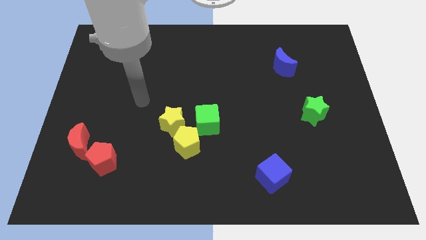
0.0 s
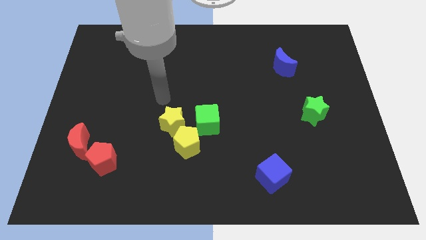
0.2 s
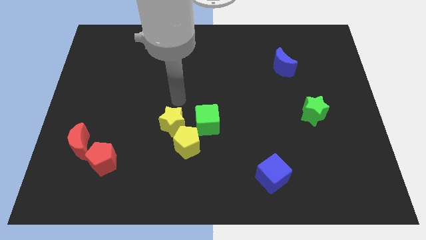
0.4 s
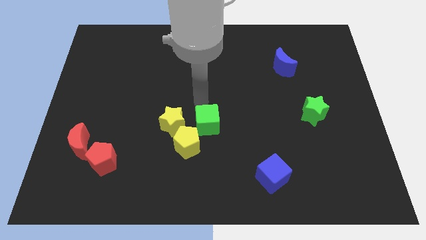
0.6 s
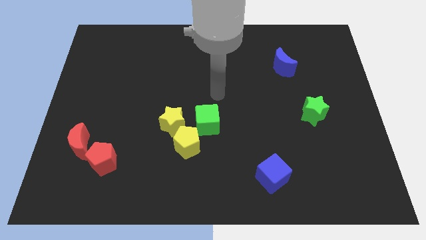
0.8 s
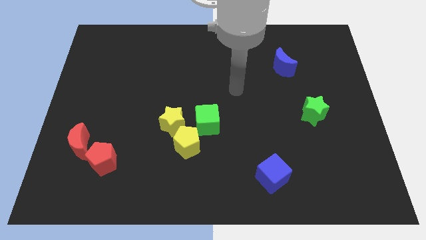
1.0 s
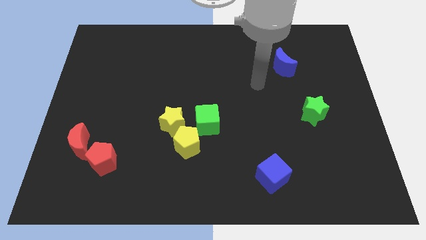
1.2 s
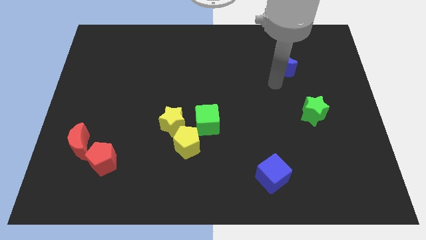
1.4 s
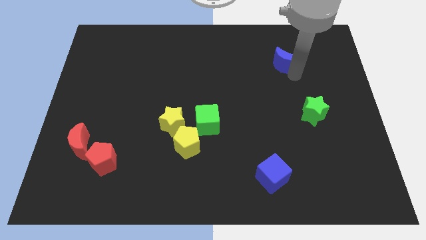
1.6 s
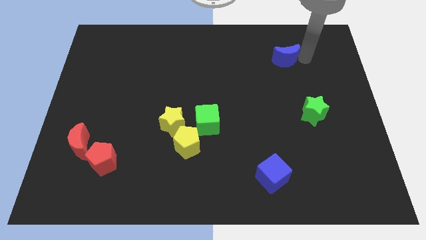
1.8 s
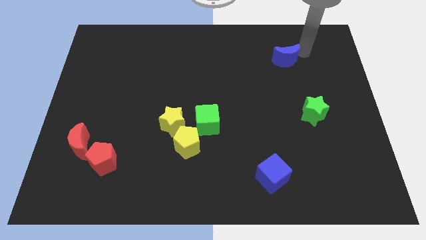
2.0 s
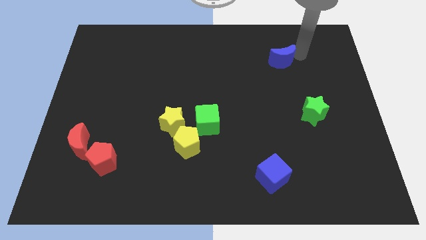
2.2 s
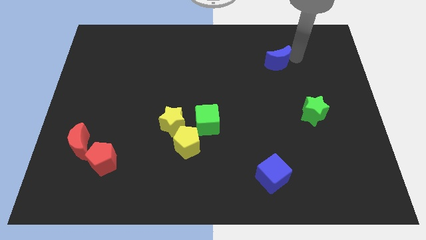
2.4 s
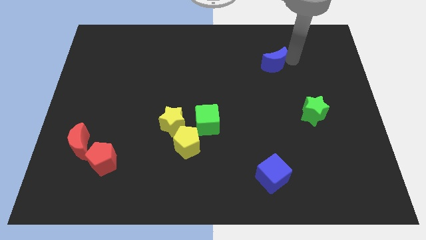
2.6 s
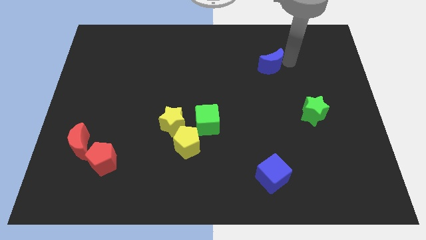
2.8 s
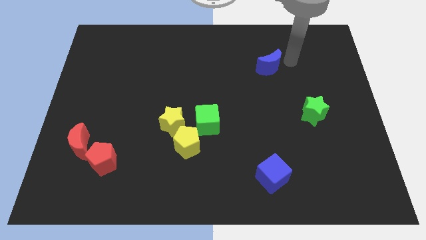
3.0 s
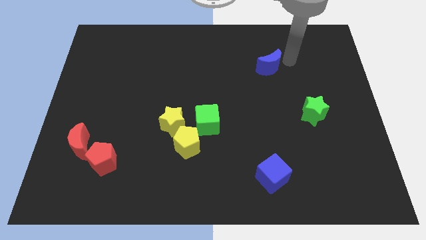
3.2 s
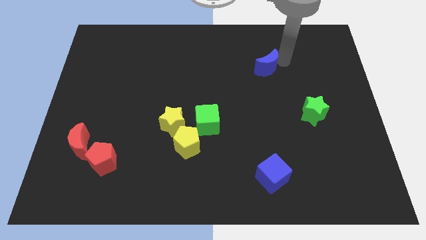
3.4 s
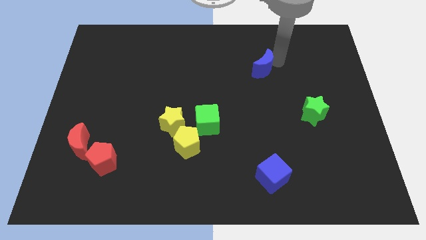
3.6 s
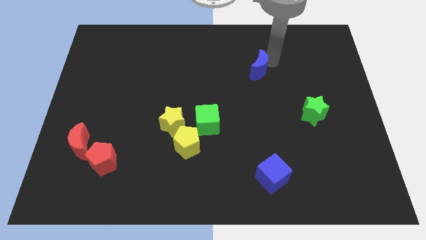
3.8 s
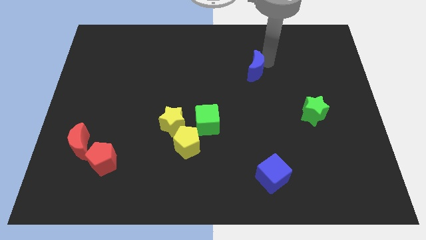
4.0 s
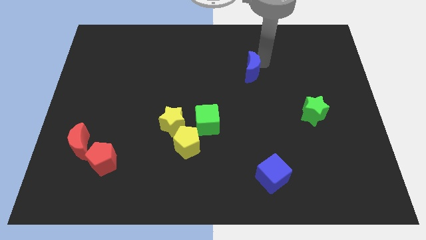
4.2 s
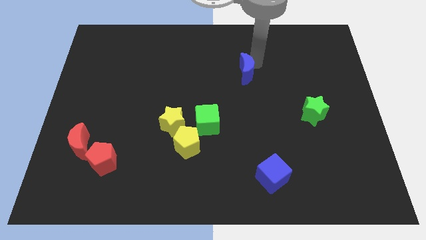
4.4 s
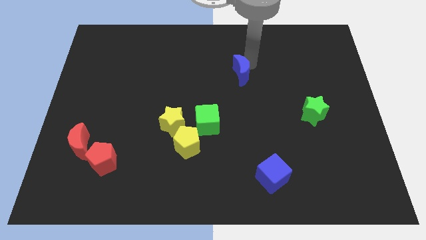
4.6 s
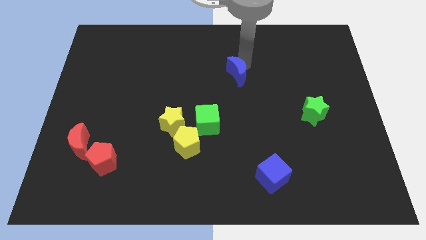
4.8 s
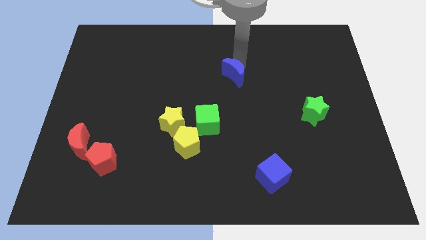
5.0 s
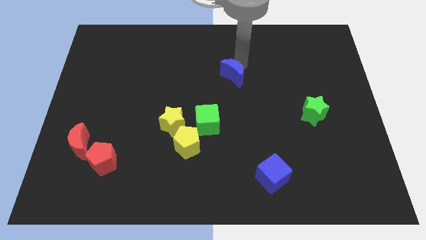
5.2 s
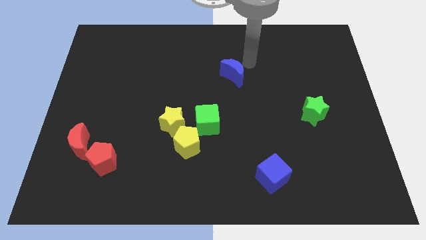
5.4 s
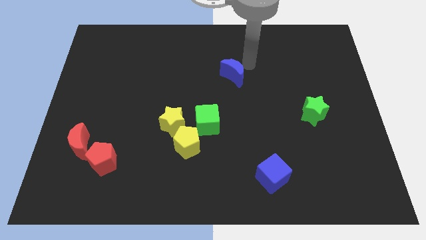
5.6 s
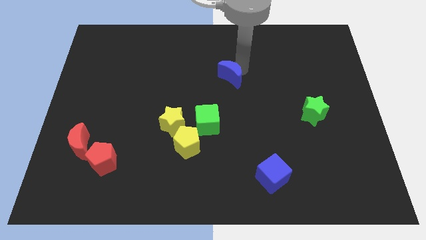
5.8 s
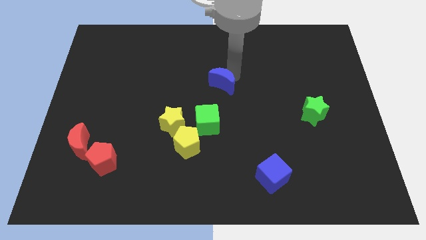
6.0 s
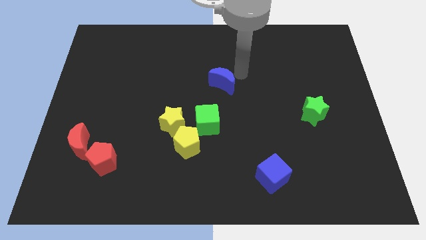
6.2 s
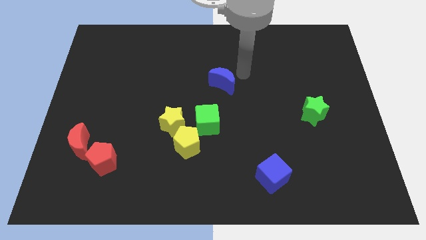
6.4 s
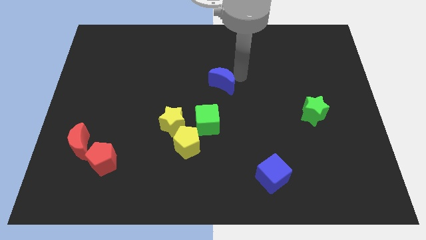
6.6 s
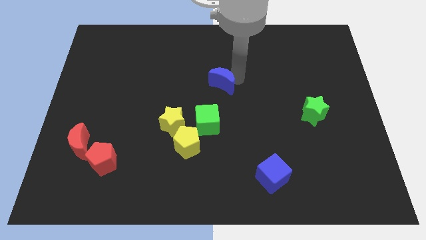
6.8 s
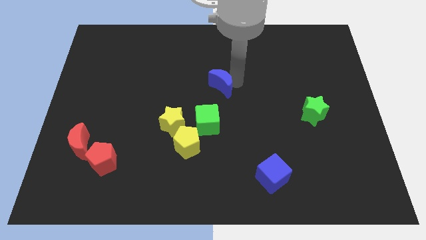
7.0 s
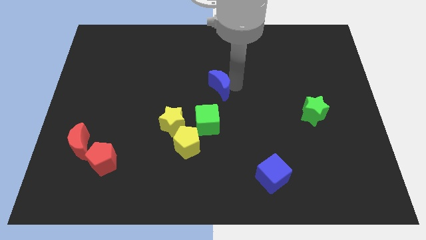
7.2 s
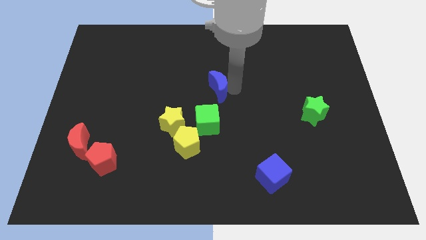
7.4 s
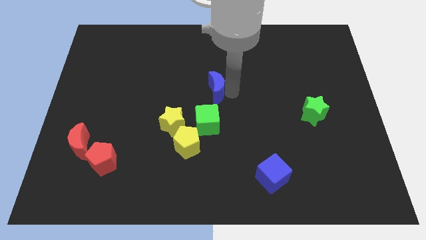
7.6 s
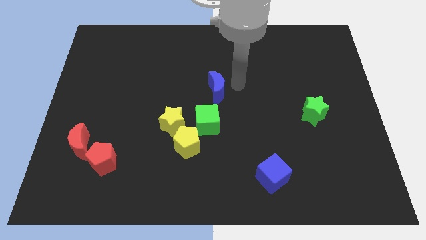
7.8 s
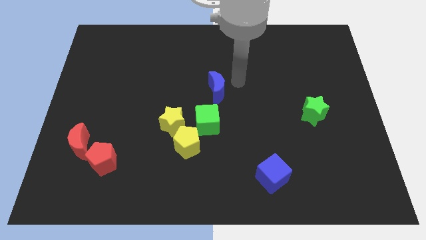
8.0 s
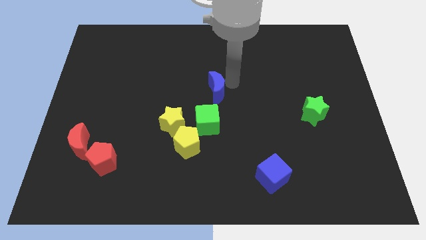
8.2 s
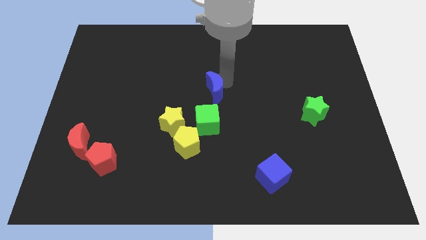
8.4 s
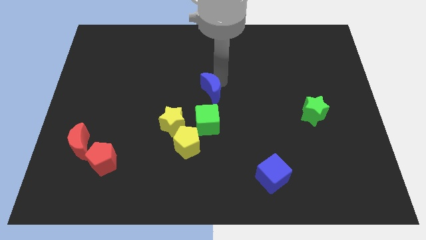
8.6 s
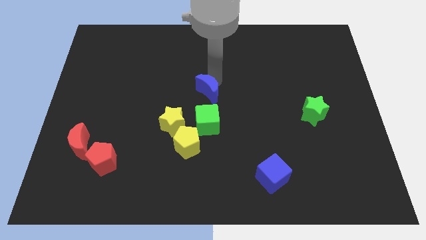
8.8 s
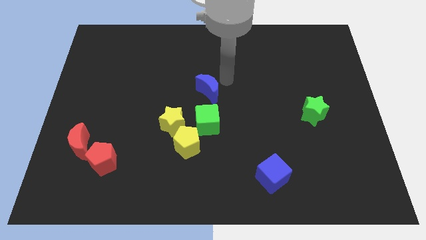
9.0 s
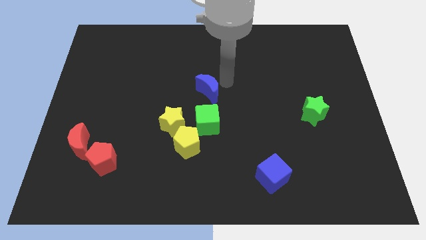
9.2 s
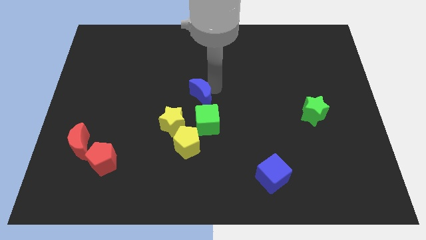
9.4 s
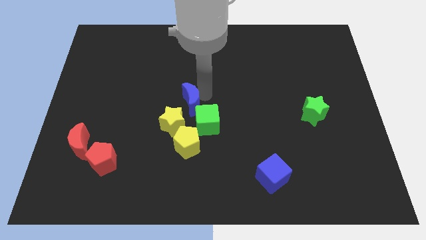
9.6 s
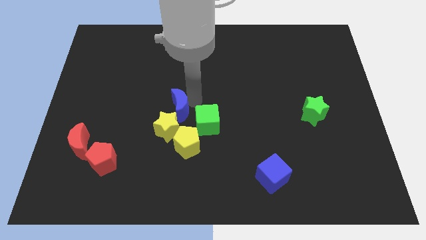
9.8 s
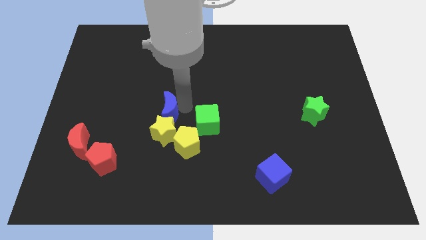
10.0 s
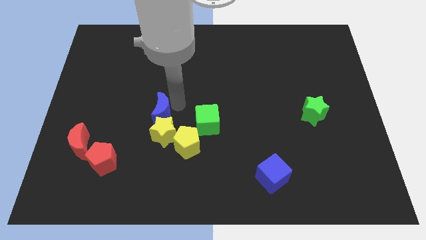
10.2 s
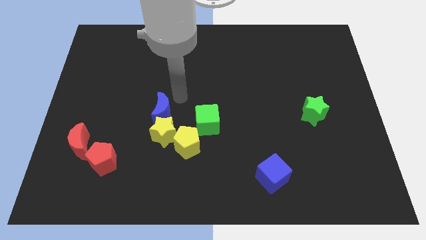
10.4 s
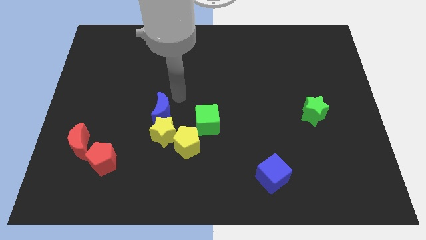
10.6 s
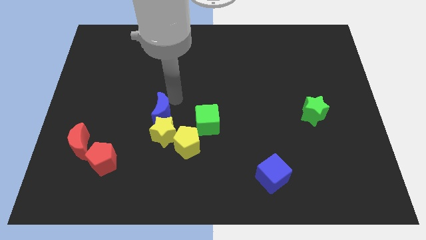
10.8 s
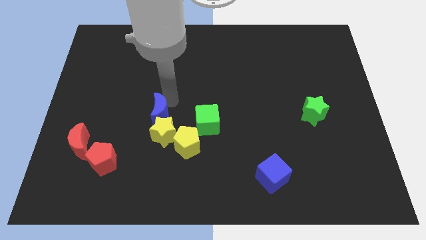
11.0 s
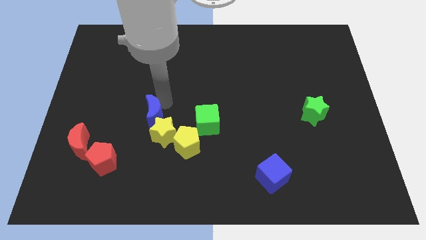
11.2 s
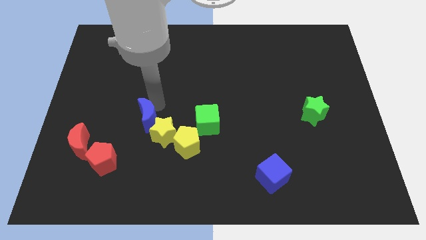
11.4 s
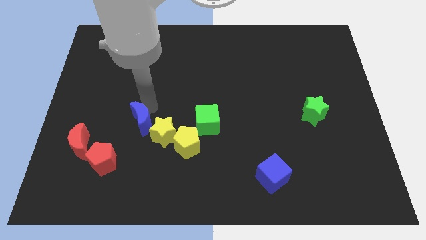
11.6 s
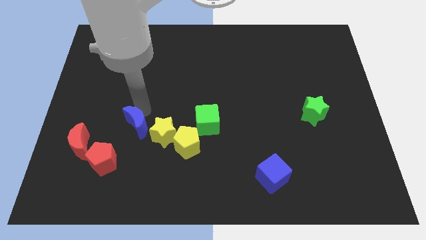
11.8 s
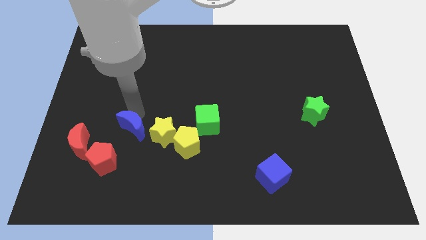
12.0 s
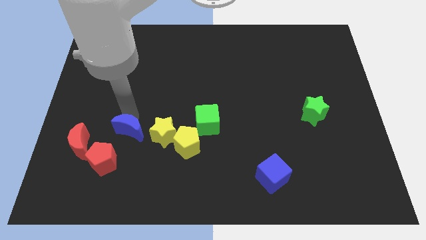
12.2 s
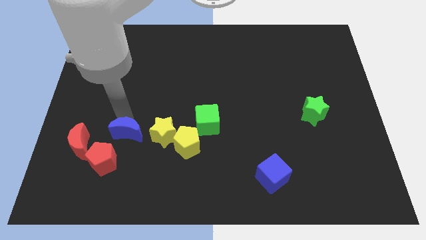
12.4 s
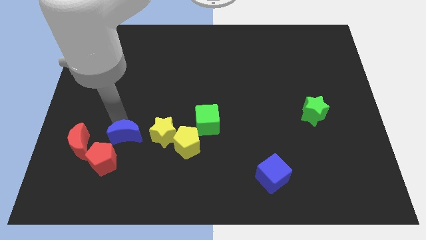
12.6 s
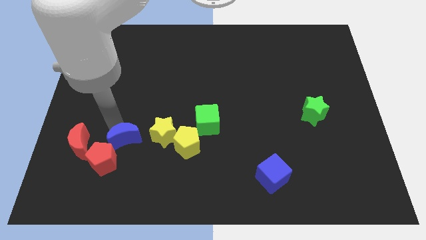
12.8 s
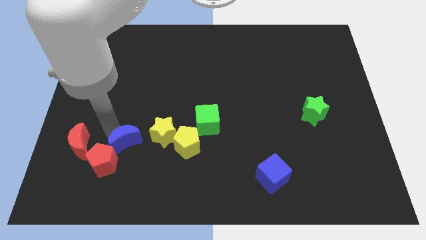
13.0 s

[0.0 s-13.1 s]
slide the blue moon to the bottom left of the yellow star

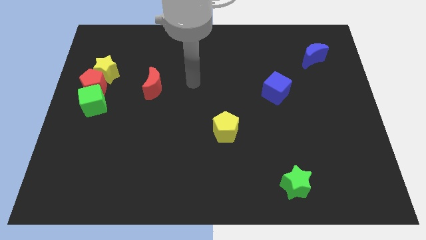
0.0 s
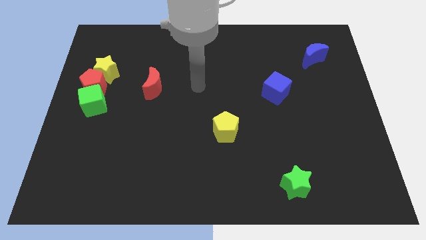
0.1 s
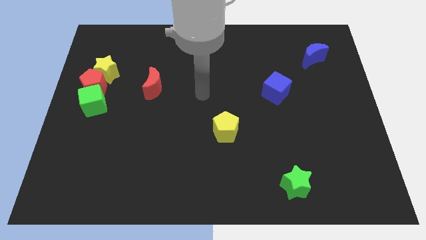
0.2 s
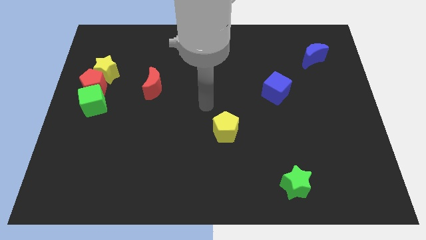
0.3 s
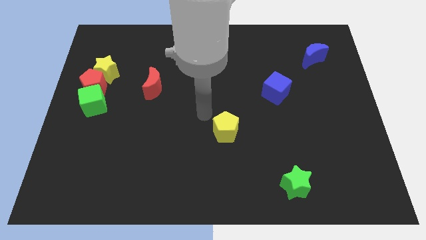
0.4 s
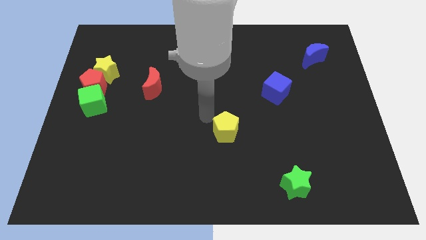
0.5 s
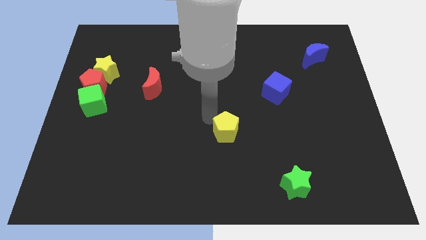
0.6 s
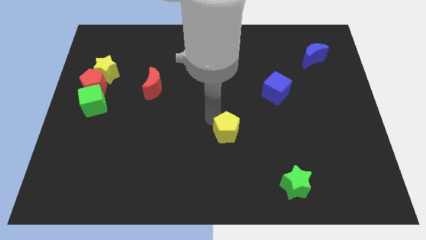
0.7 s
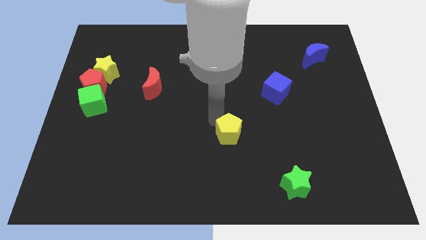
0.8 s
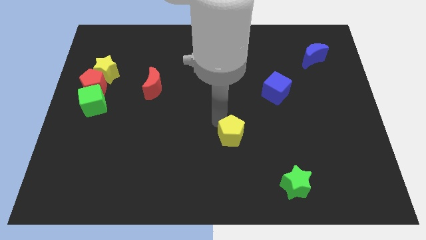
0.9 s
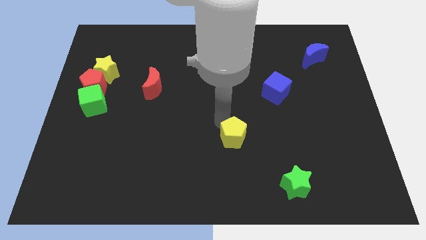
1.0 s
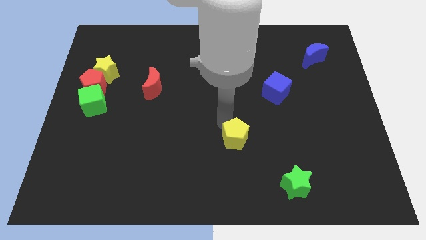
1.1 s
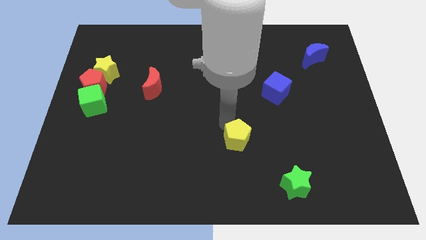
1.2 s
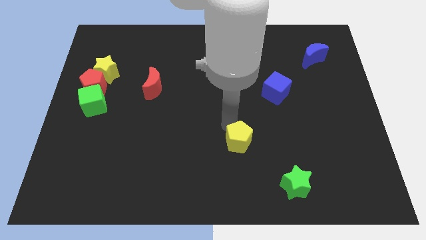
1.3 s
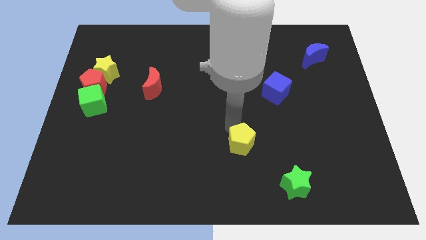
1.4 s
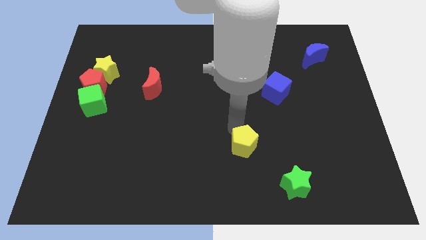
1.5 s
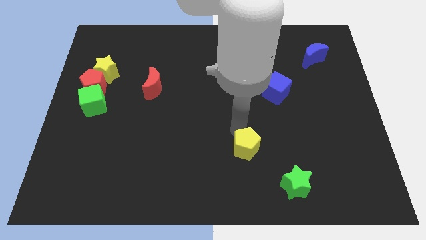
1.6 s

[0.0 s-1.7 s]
push the yellow pentagon to the top left side of the green star
